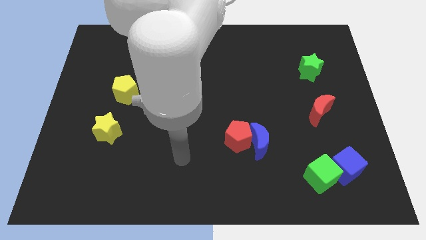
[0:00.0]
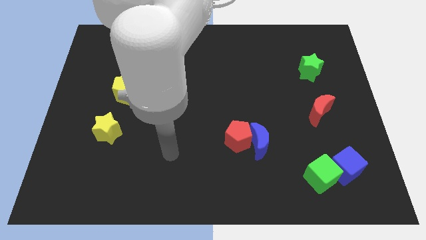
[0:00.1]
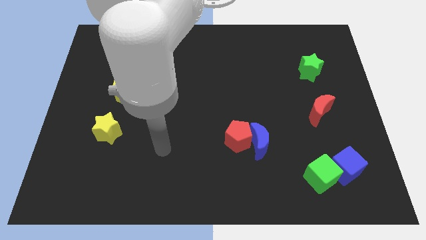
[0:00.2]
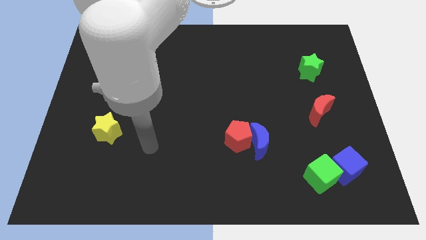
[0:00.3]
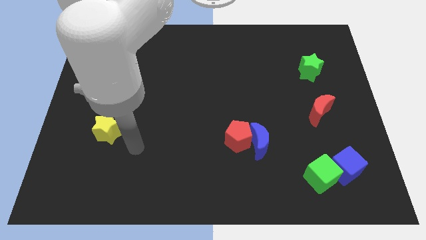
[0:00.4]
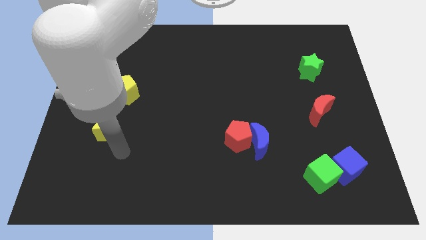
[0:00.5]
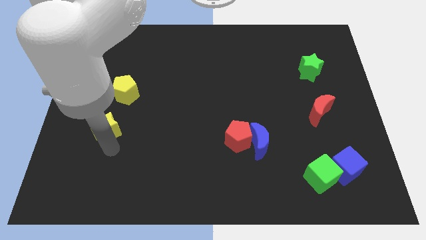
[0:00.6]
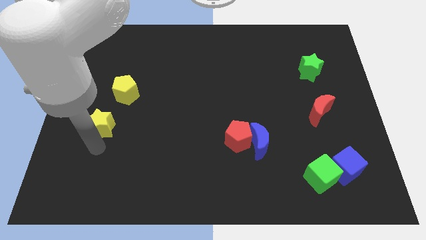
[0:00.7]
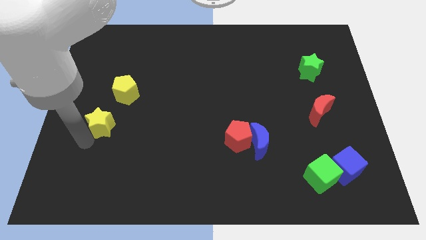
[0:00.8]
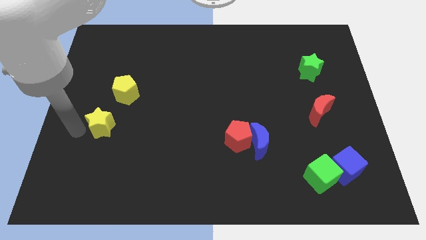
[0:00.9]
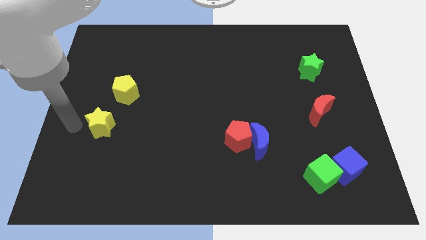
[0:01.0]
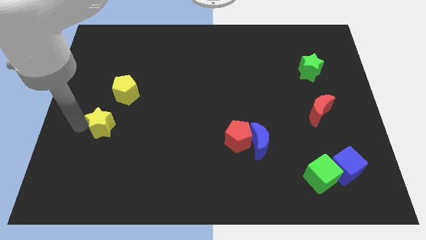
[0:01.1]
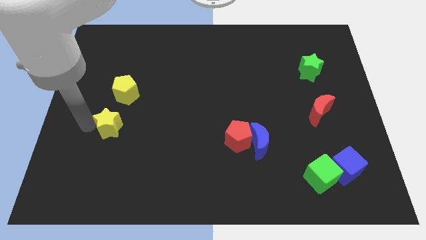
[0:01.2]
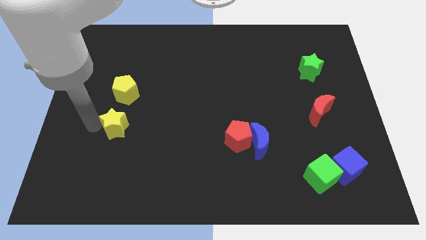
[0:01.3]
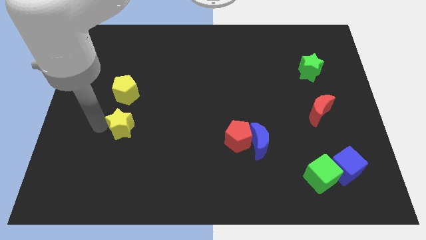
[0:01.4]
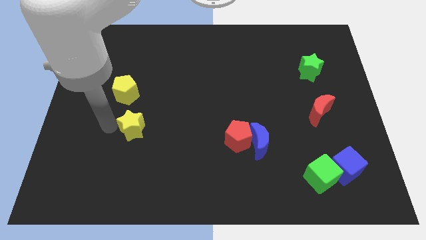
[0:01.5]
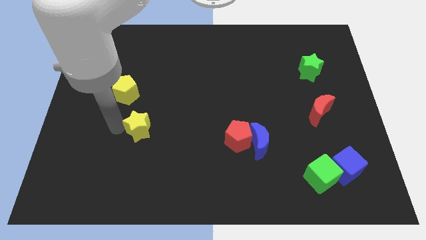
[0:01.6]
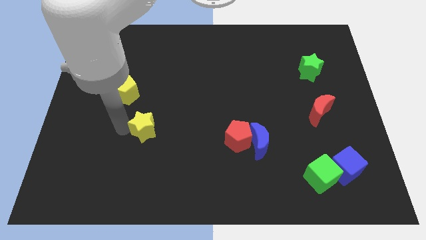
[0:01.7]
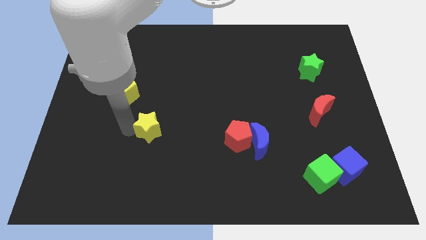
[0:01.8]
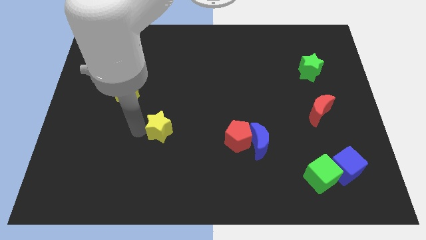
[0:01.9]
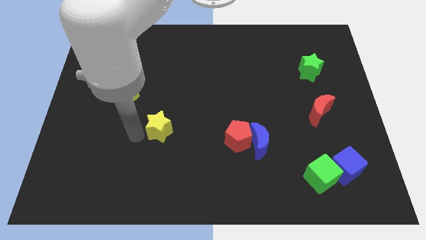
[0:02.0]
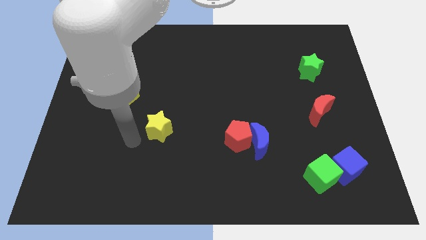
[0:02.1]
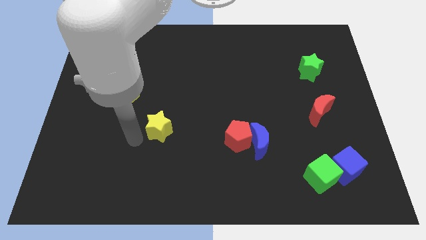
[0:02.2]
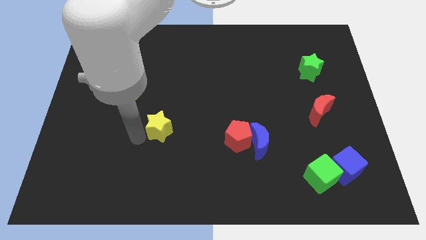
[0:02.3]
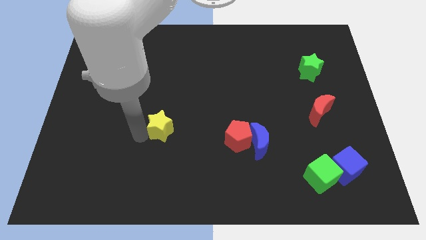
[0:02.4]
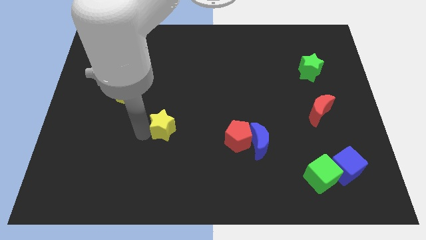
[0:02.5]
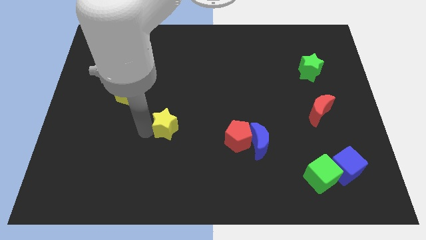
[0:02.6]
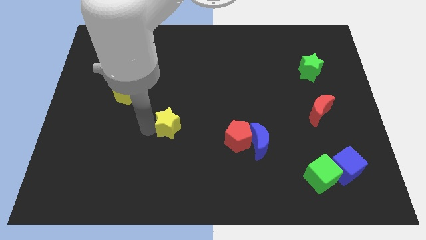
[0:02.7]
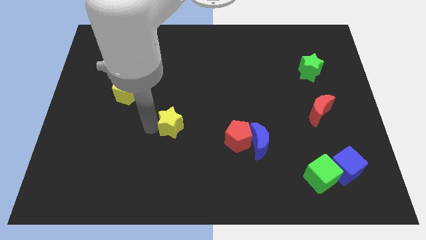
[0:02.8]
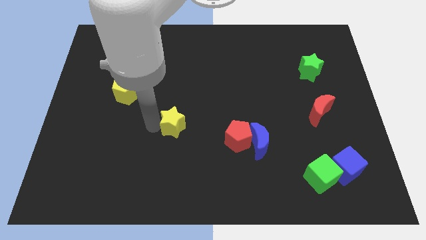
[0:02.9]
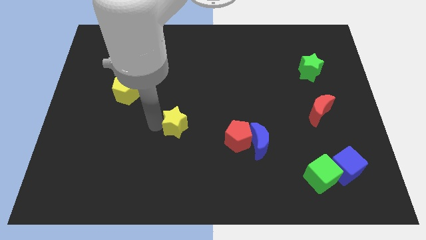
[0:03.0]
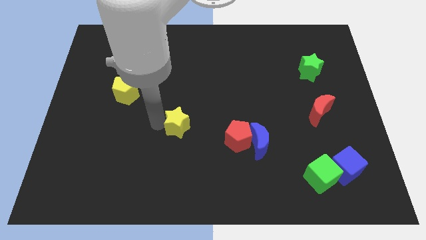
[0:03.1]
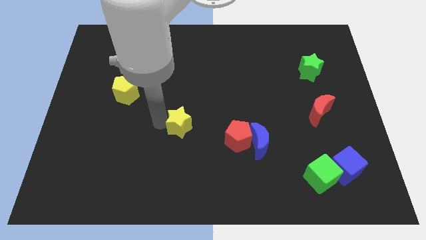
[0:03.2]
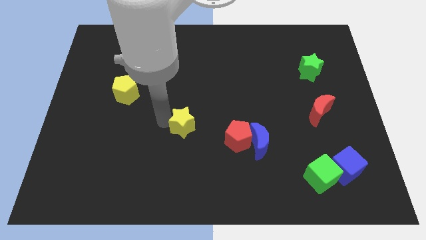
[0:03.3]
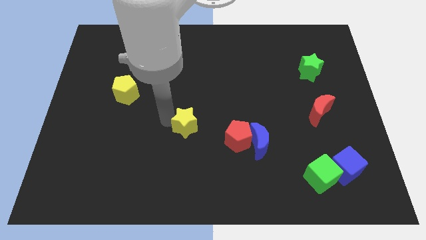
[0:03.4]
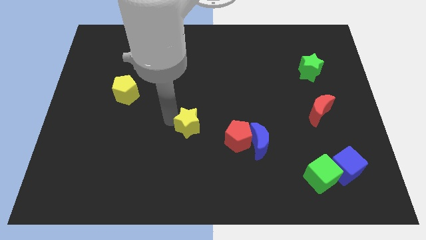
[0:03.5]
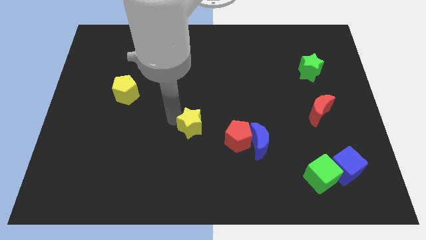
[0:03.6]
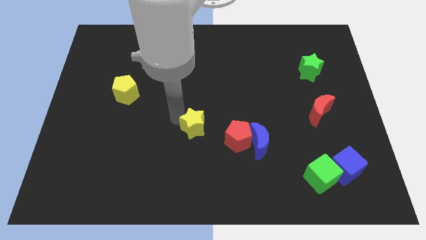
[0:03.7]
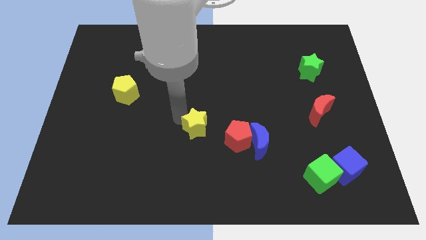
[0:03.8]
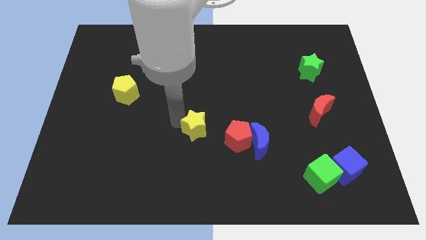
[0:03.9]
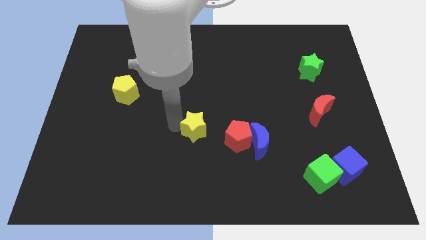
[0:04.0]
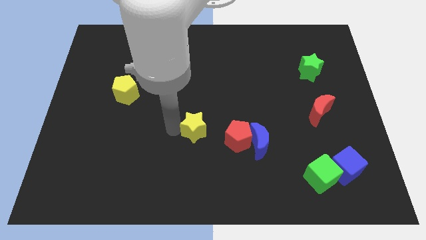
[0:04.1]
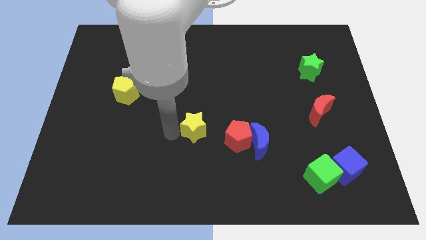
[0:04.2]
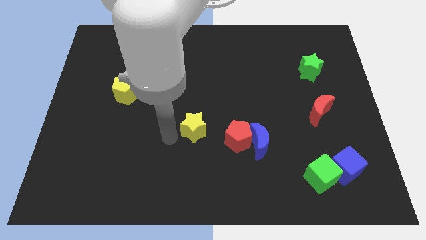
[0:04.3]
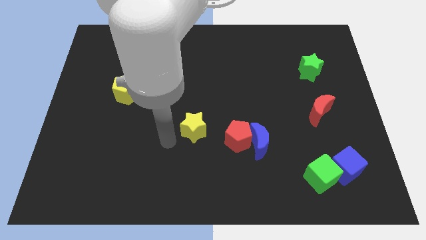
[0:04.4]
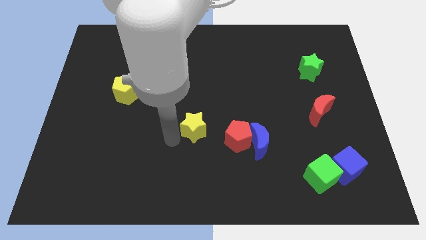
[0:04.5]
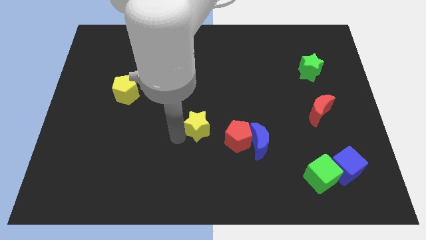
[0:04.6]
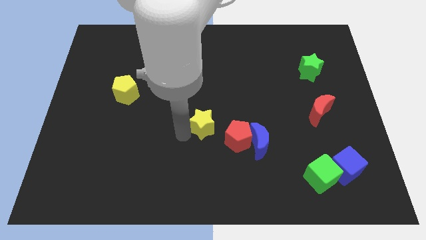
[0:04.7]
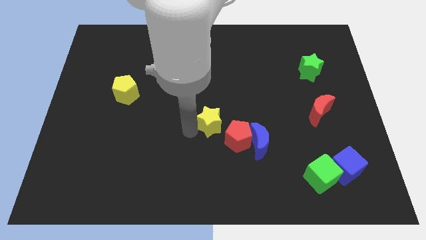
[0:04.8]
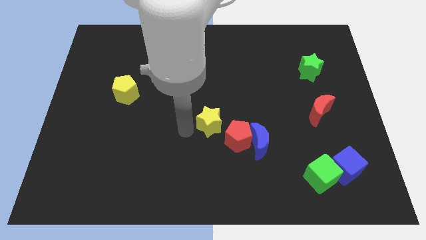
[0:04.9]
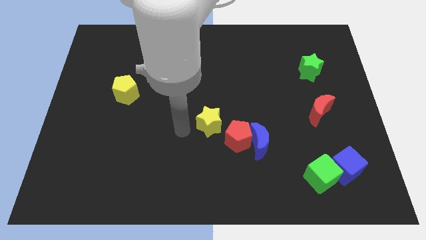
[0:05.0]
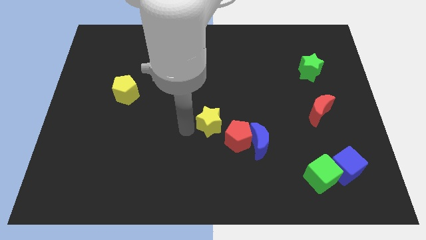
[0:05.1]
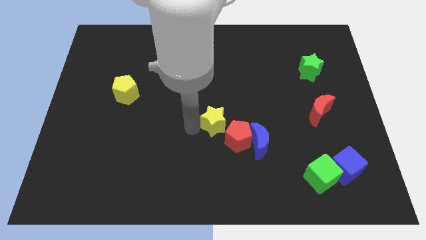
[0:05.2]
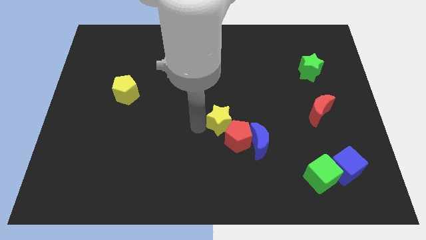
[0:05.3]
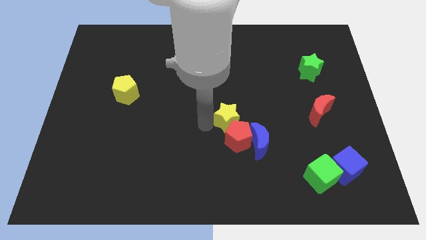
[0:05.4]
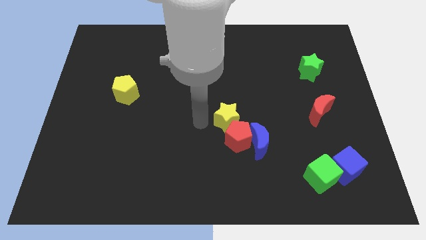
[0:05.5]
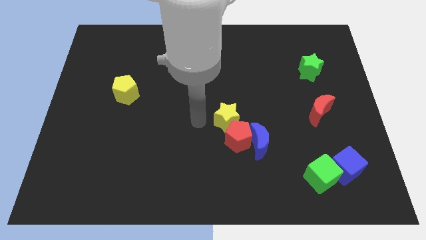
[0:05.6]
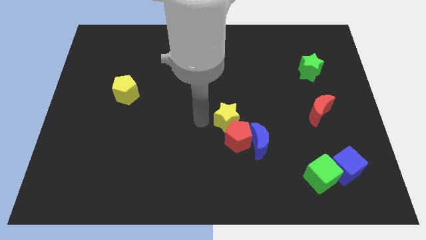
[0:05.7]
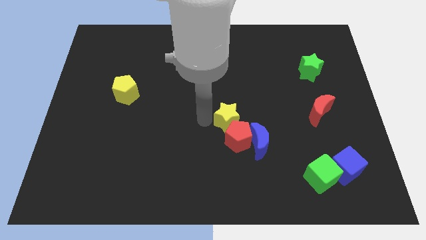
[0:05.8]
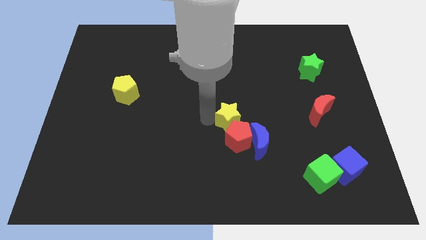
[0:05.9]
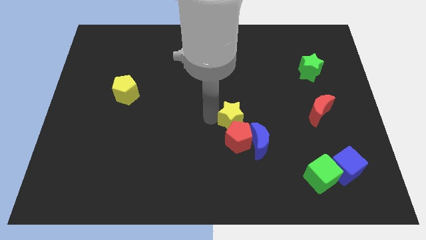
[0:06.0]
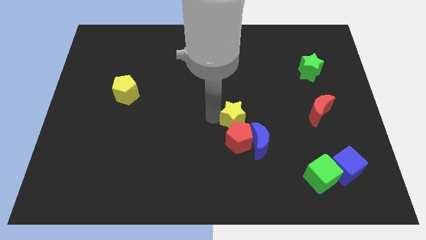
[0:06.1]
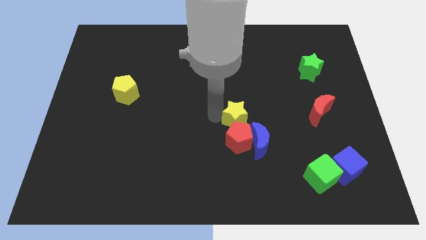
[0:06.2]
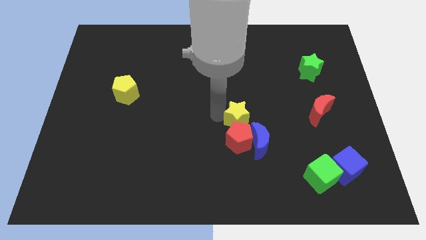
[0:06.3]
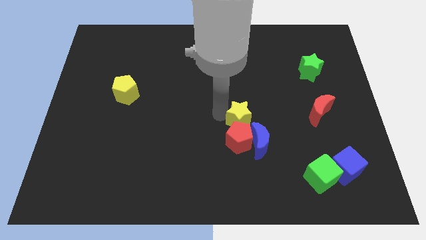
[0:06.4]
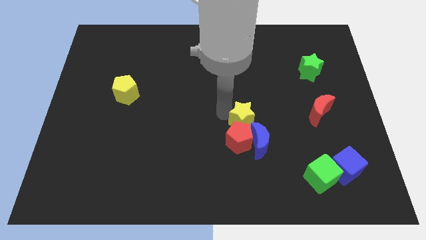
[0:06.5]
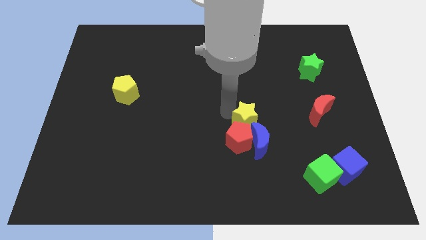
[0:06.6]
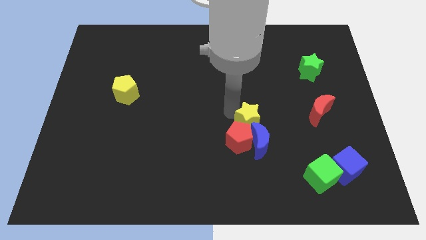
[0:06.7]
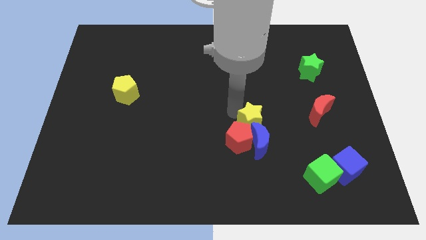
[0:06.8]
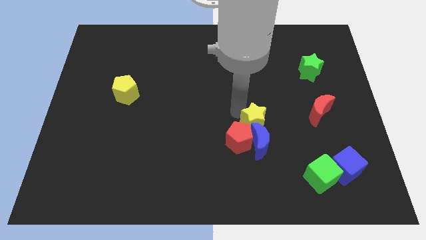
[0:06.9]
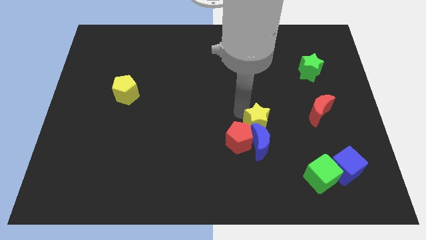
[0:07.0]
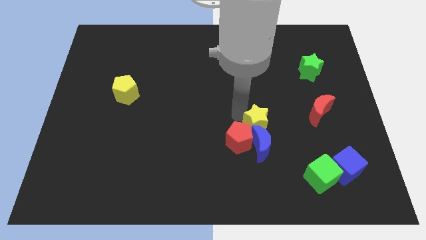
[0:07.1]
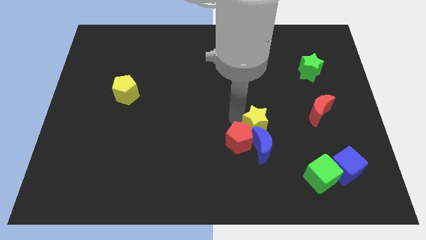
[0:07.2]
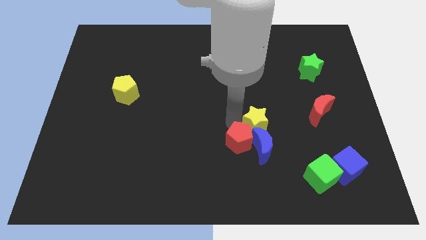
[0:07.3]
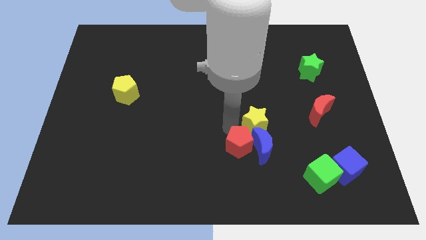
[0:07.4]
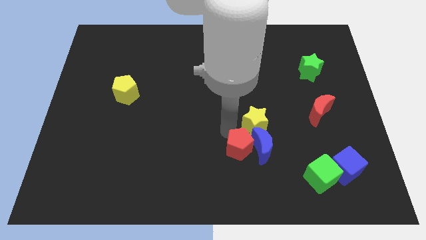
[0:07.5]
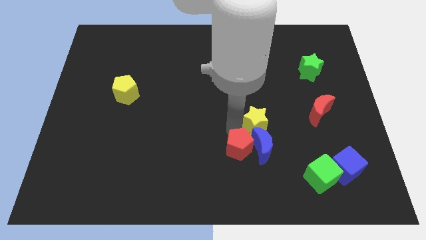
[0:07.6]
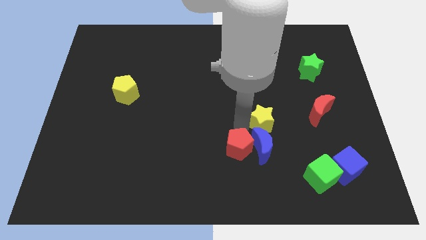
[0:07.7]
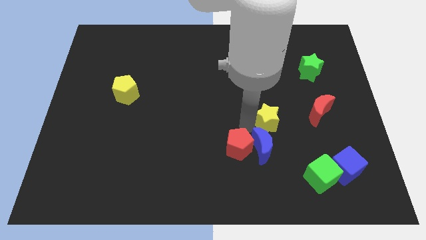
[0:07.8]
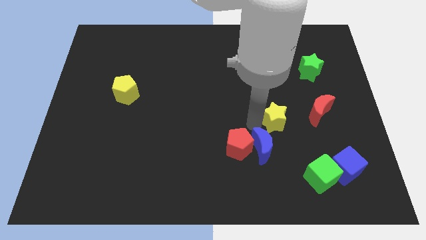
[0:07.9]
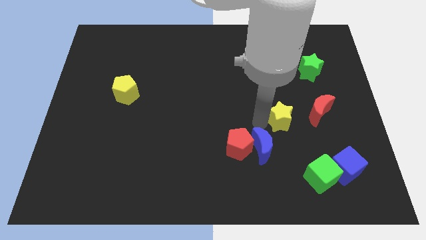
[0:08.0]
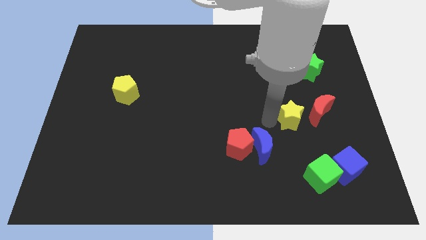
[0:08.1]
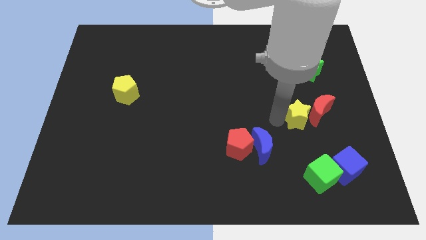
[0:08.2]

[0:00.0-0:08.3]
put the yellow star towards the red moon
